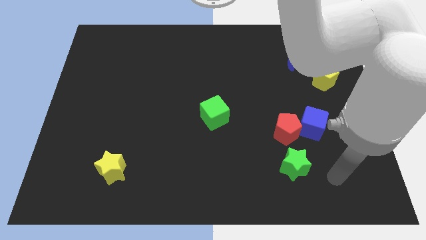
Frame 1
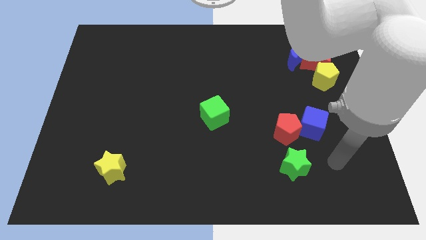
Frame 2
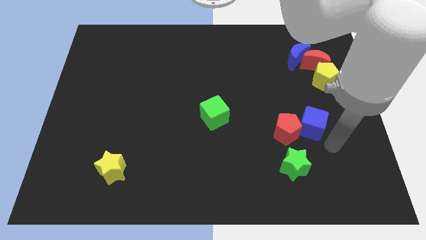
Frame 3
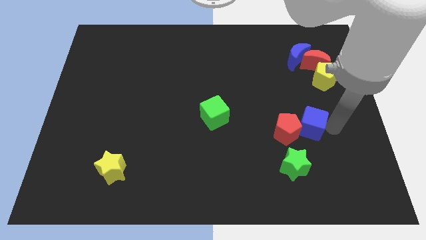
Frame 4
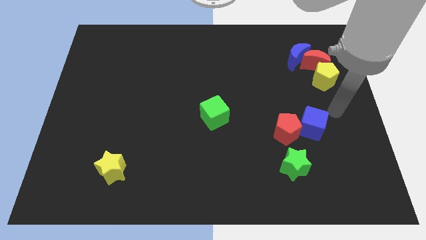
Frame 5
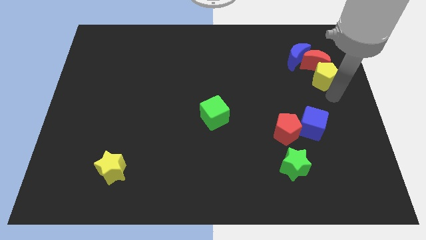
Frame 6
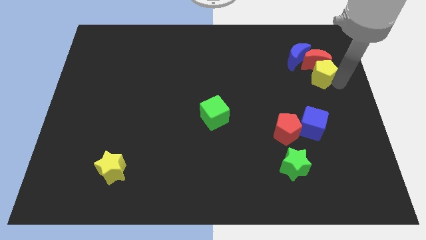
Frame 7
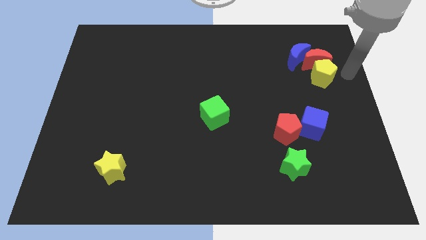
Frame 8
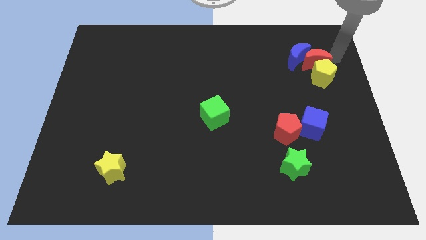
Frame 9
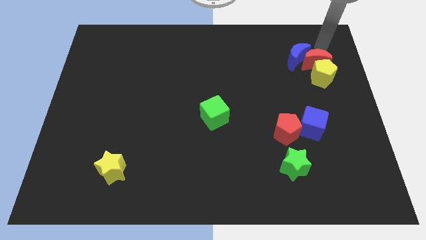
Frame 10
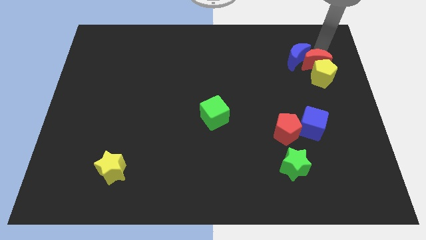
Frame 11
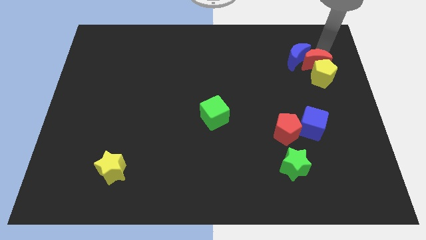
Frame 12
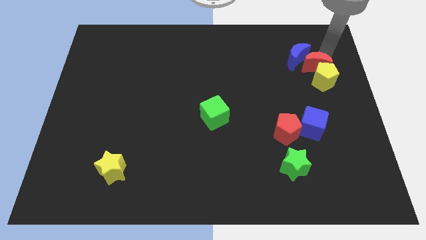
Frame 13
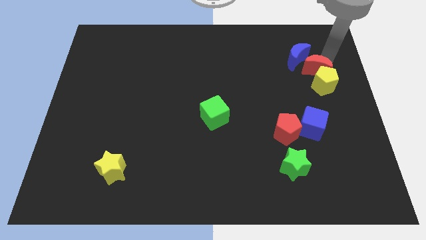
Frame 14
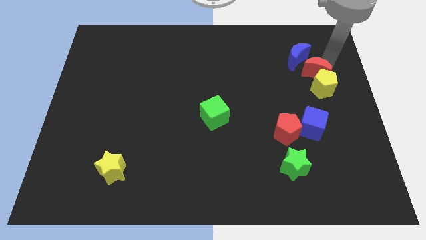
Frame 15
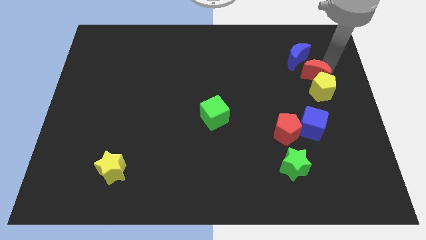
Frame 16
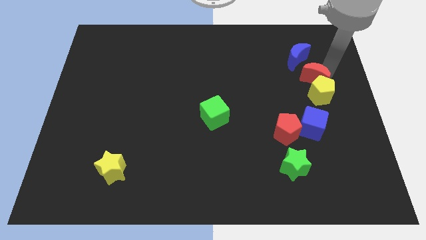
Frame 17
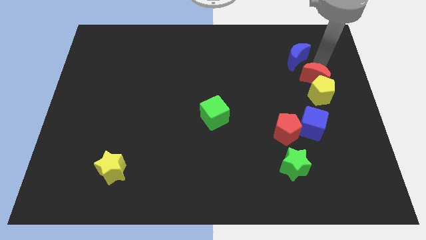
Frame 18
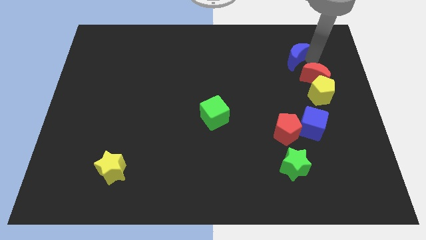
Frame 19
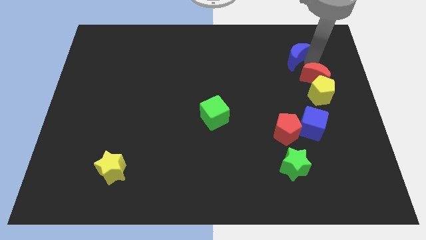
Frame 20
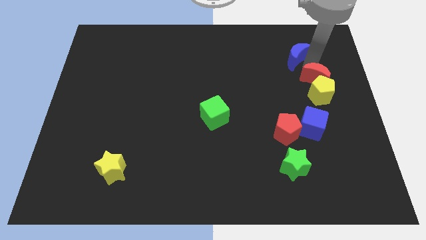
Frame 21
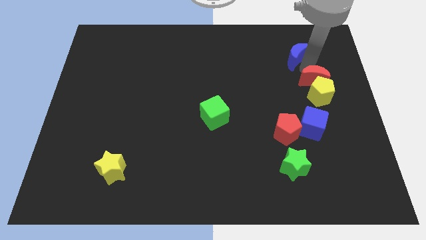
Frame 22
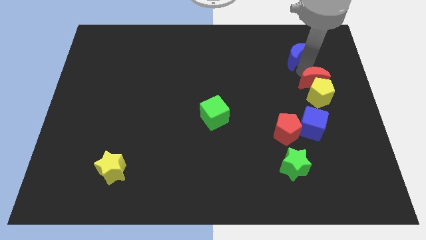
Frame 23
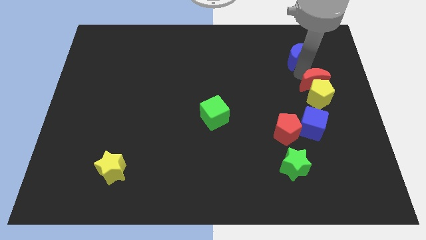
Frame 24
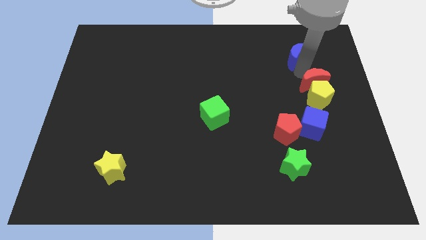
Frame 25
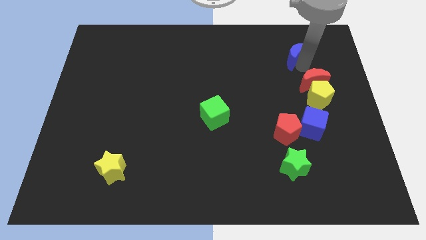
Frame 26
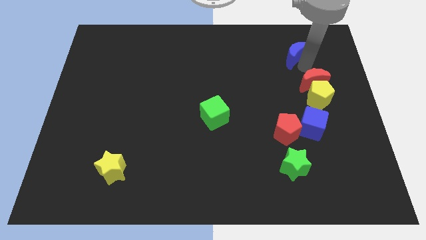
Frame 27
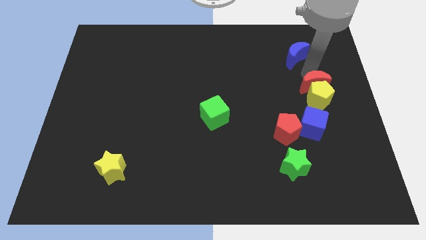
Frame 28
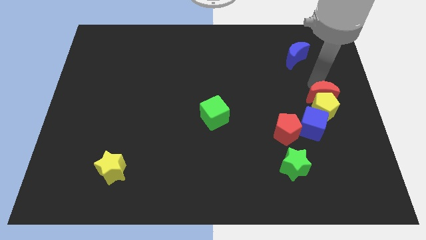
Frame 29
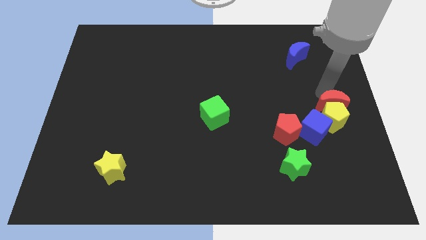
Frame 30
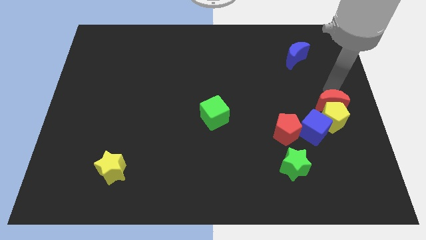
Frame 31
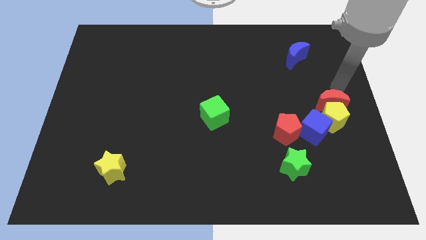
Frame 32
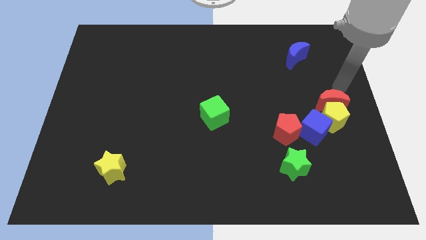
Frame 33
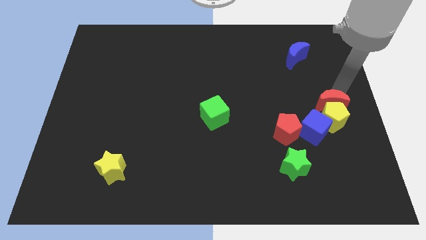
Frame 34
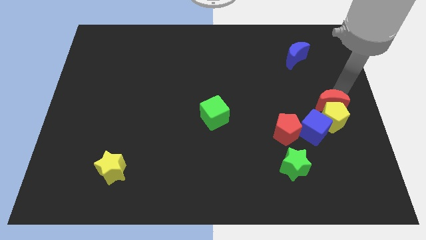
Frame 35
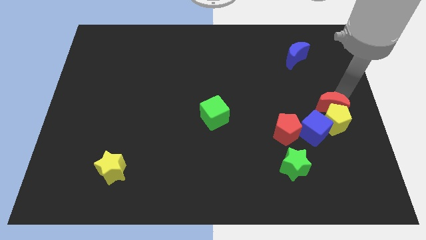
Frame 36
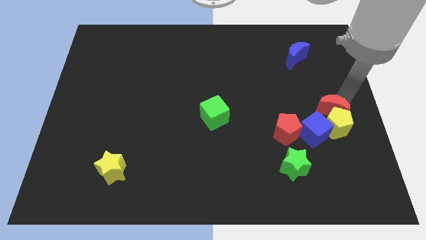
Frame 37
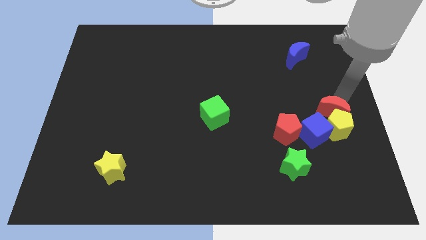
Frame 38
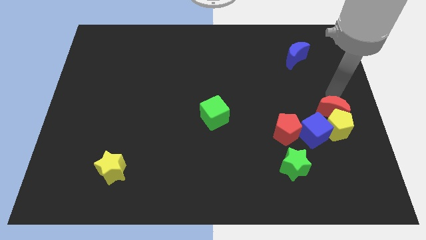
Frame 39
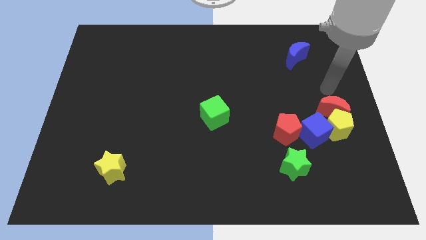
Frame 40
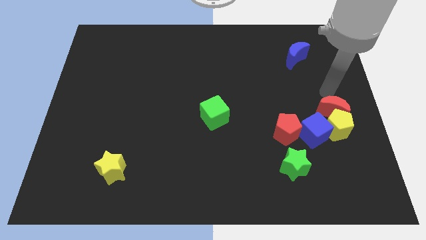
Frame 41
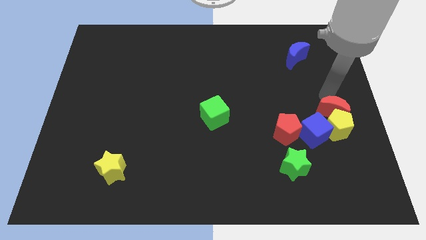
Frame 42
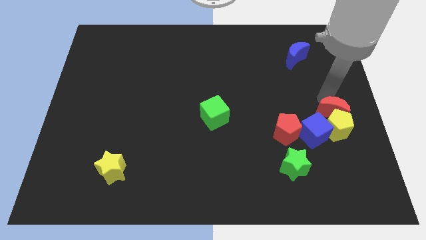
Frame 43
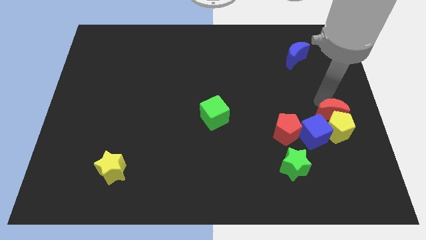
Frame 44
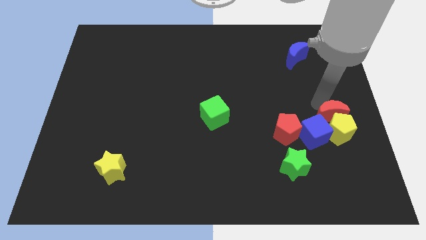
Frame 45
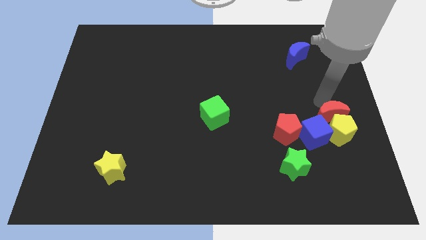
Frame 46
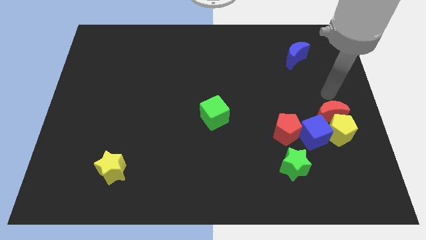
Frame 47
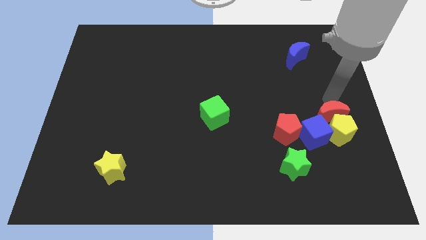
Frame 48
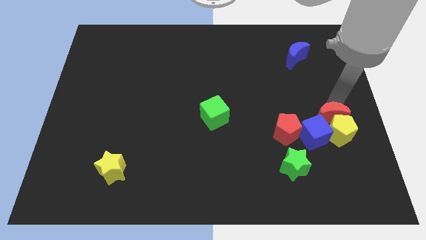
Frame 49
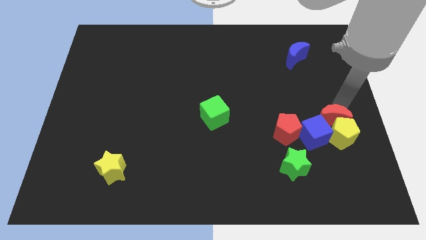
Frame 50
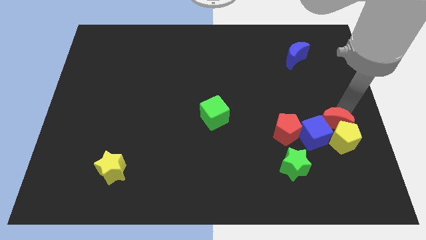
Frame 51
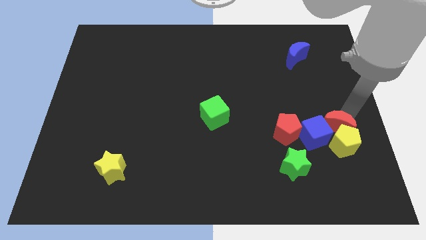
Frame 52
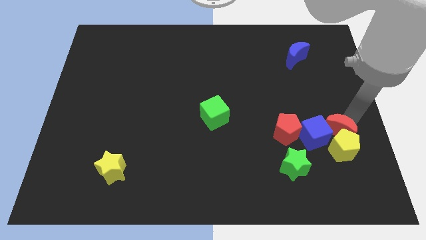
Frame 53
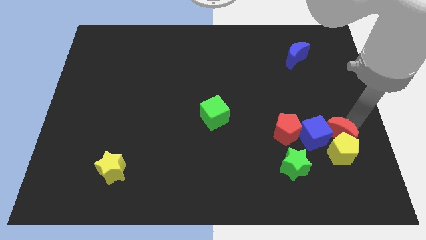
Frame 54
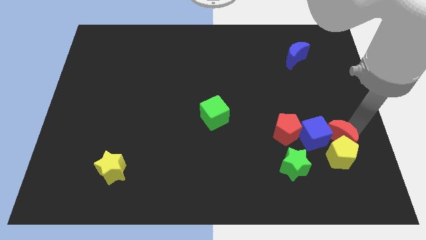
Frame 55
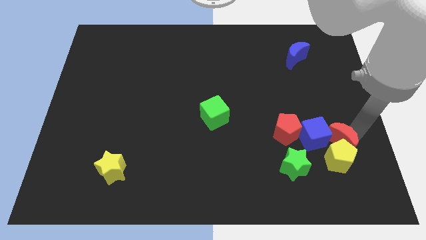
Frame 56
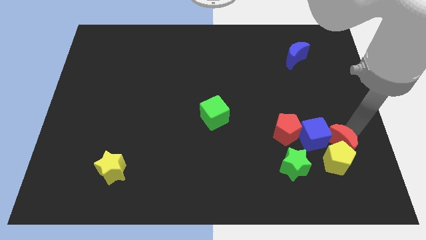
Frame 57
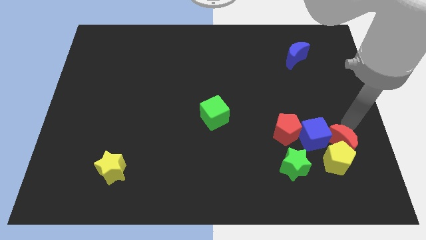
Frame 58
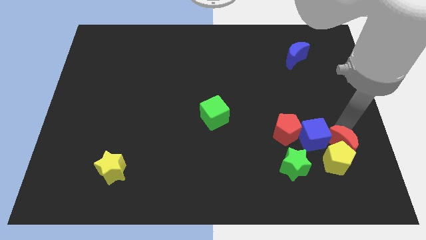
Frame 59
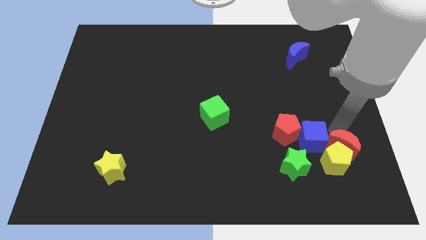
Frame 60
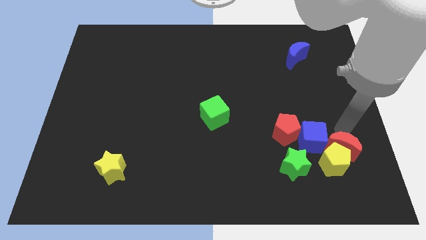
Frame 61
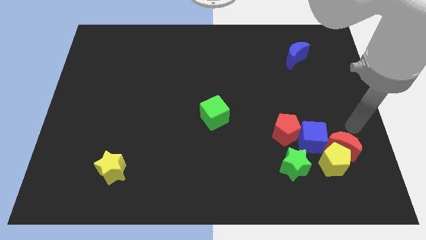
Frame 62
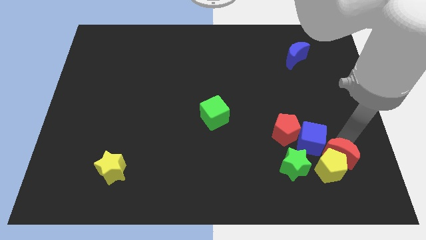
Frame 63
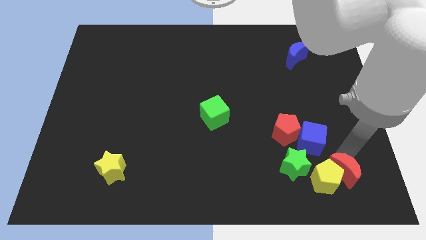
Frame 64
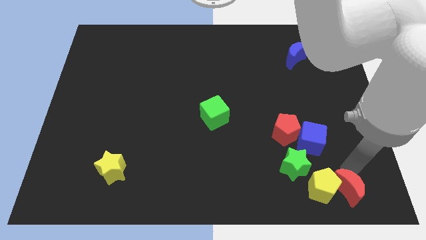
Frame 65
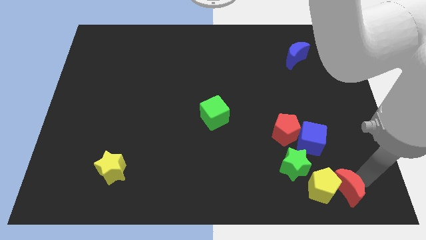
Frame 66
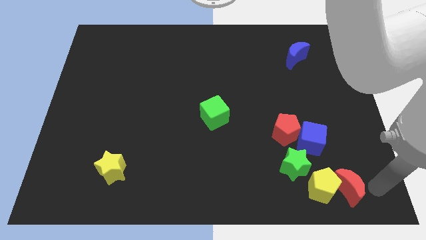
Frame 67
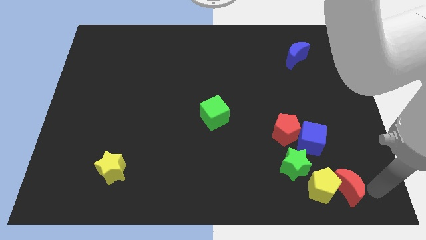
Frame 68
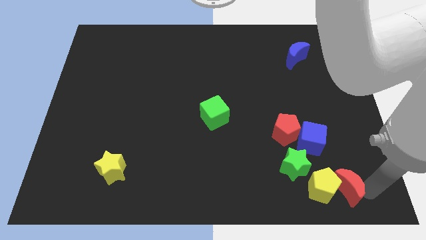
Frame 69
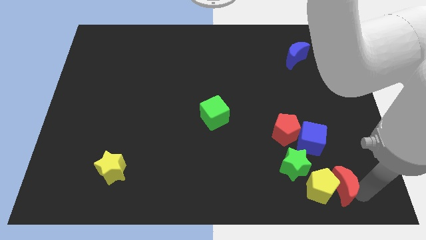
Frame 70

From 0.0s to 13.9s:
move the red moon below the blue cube
